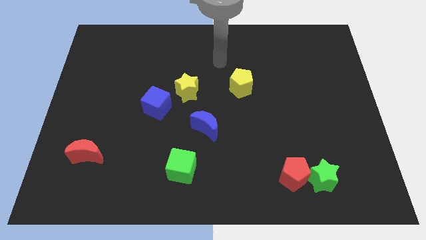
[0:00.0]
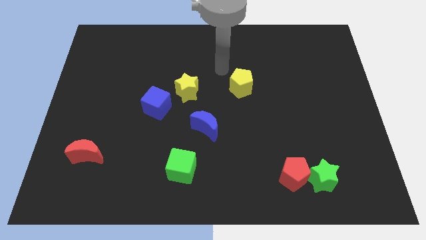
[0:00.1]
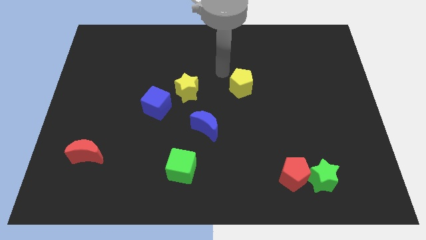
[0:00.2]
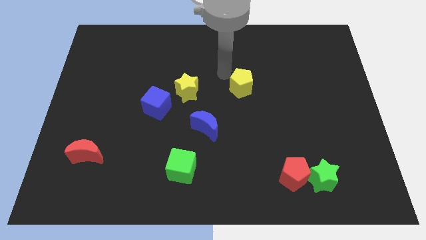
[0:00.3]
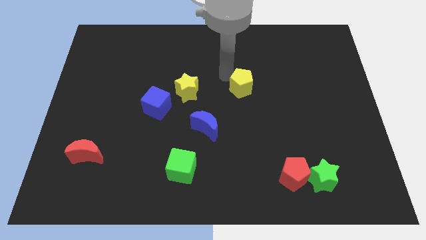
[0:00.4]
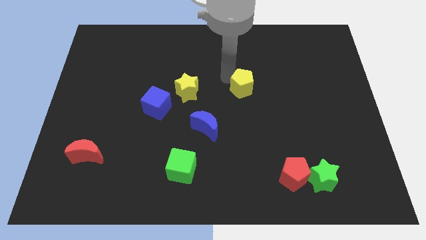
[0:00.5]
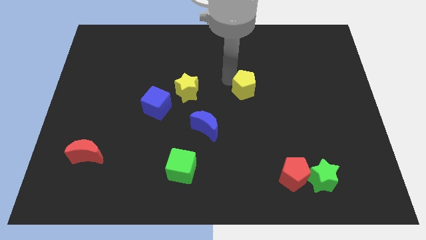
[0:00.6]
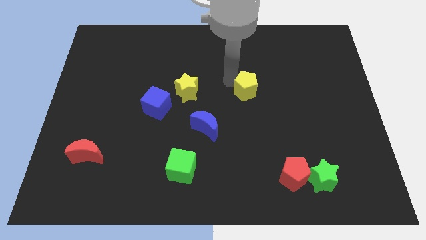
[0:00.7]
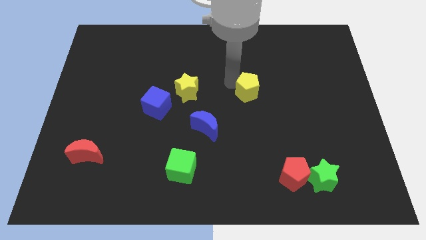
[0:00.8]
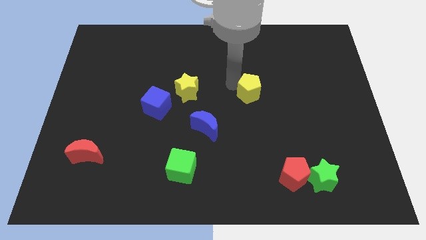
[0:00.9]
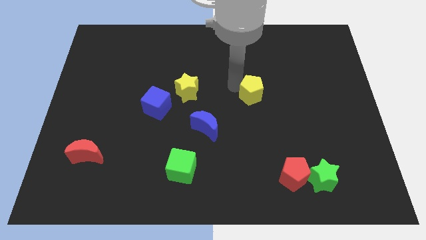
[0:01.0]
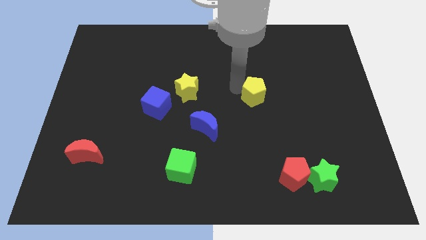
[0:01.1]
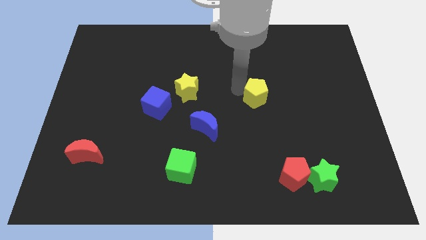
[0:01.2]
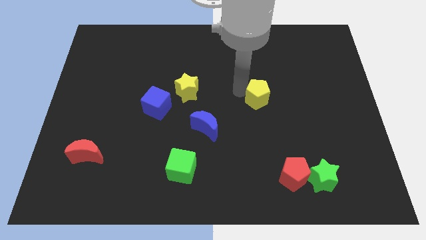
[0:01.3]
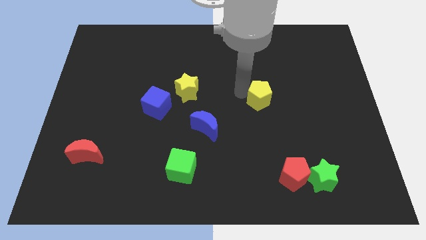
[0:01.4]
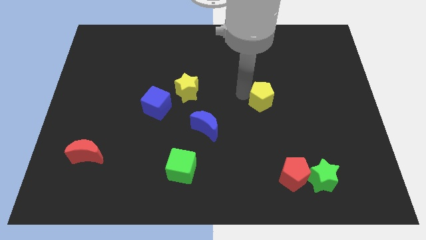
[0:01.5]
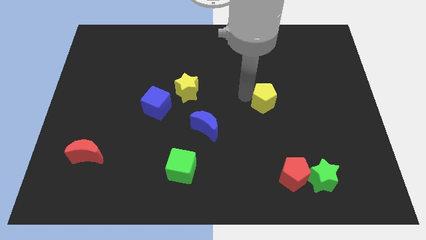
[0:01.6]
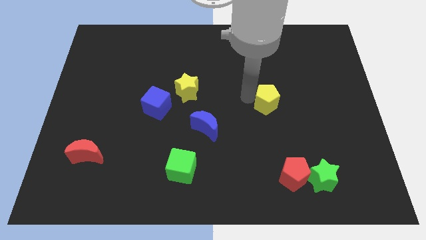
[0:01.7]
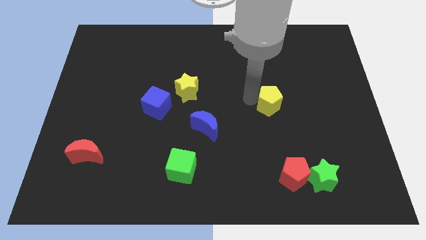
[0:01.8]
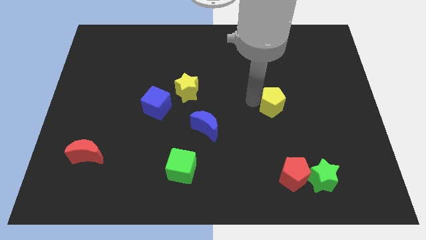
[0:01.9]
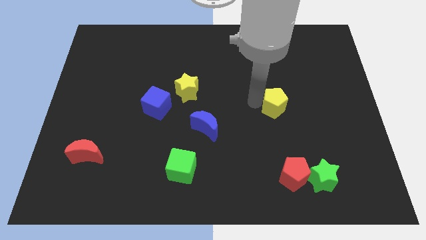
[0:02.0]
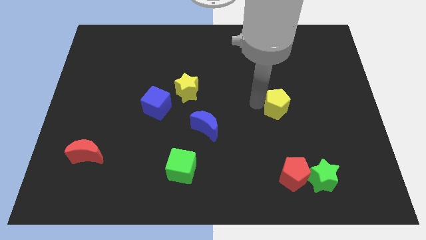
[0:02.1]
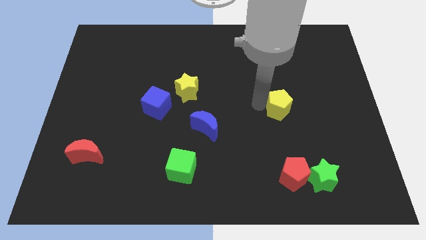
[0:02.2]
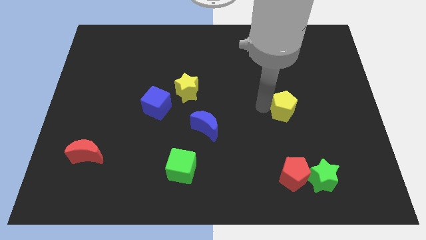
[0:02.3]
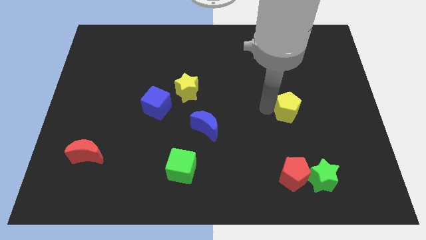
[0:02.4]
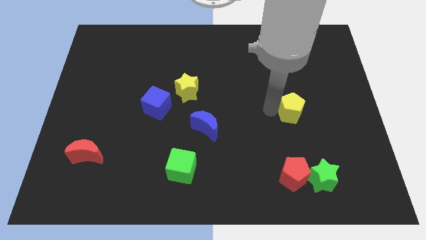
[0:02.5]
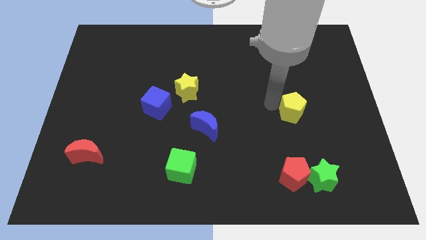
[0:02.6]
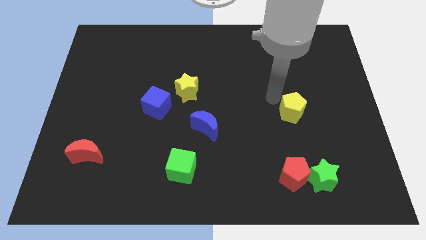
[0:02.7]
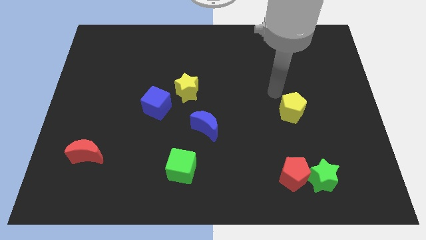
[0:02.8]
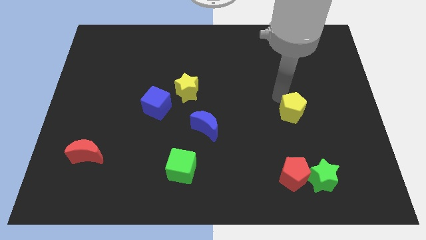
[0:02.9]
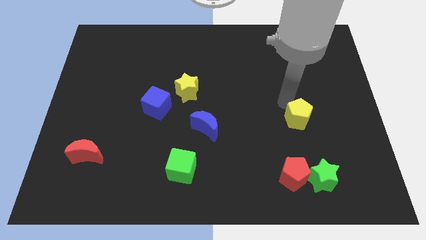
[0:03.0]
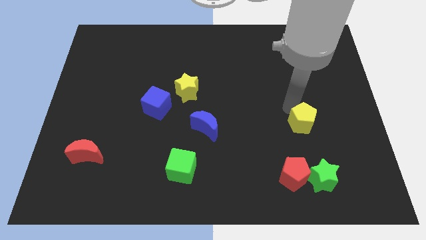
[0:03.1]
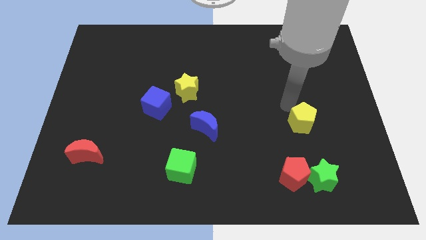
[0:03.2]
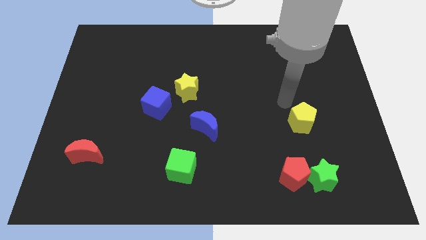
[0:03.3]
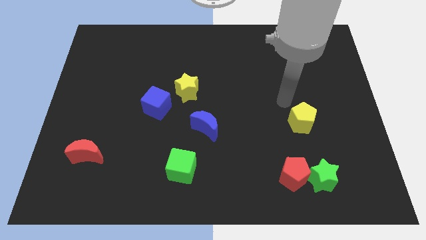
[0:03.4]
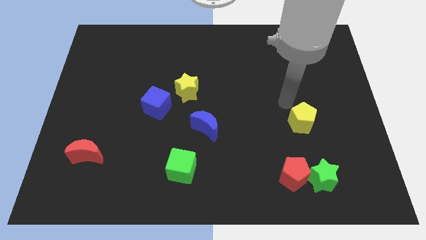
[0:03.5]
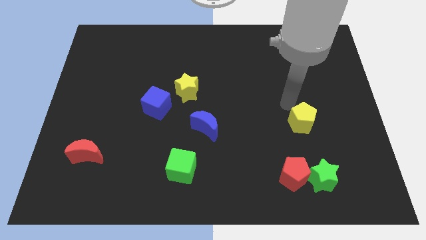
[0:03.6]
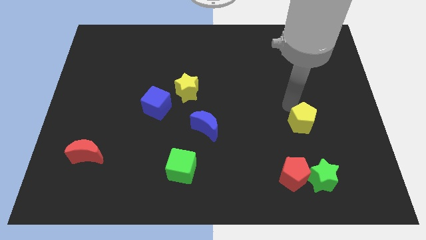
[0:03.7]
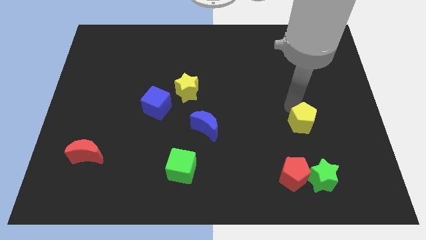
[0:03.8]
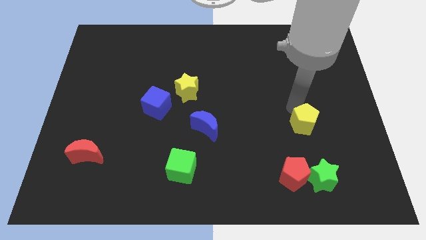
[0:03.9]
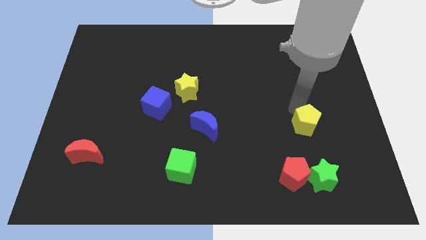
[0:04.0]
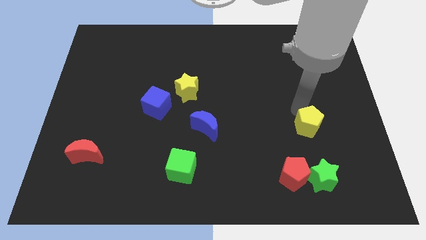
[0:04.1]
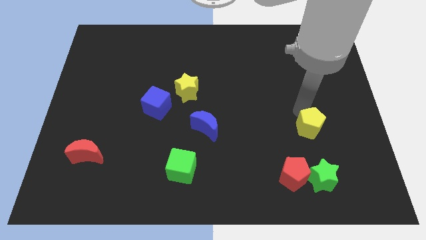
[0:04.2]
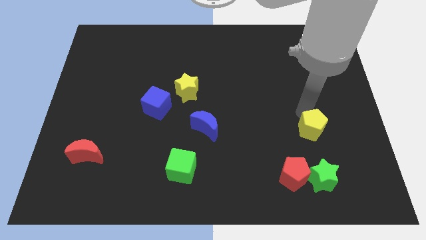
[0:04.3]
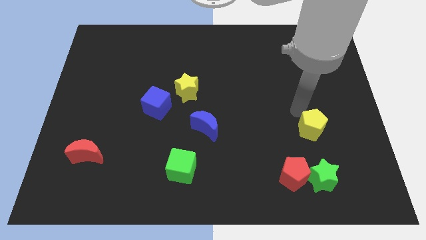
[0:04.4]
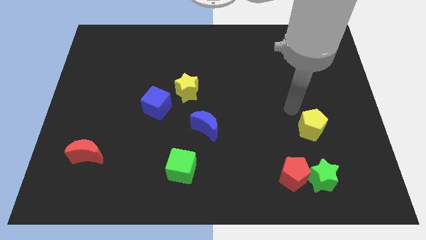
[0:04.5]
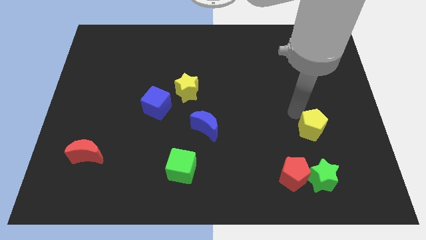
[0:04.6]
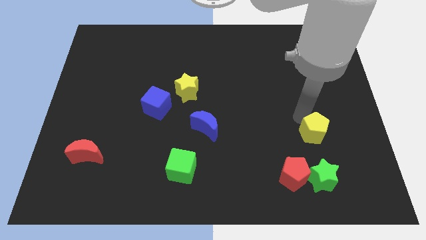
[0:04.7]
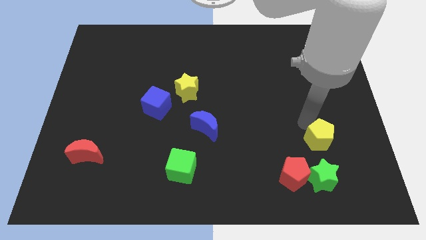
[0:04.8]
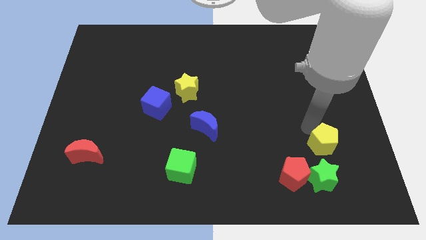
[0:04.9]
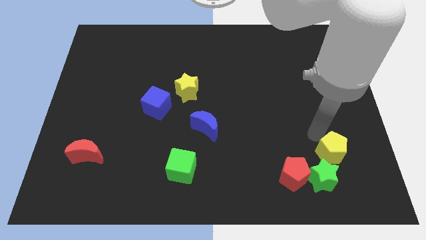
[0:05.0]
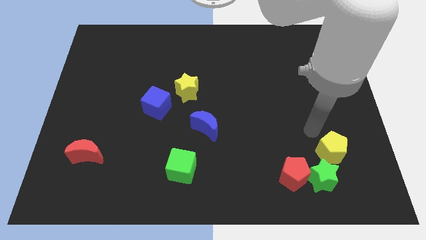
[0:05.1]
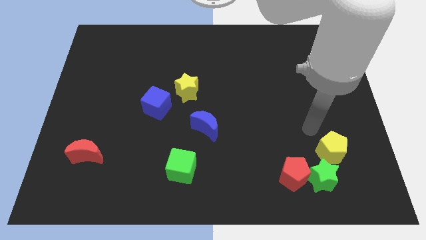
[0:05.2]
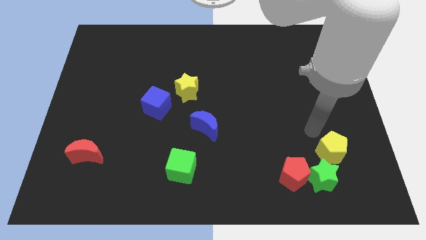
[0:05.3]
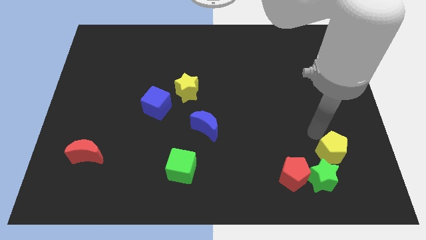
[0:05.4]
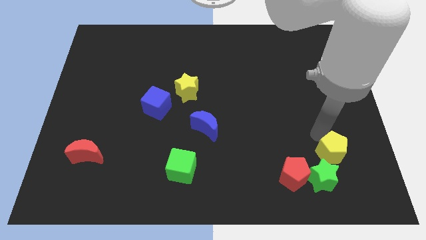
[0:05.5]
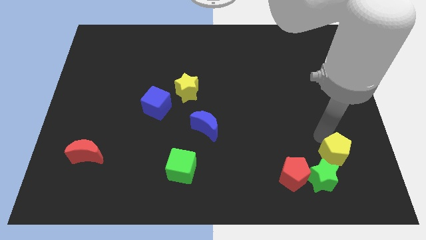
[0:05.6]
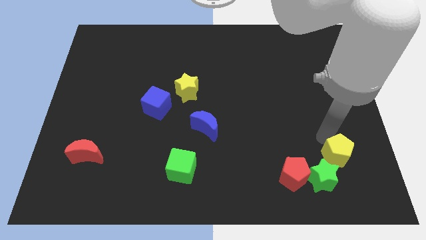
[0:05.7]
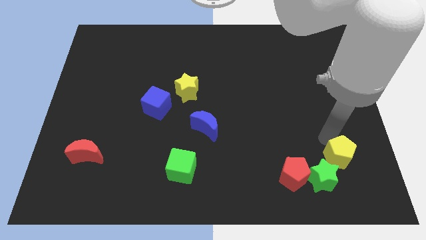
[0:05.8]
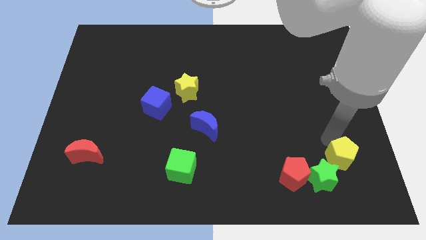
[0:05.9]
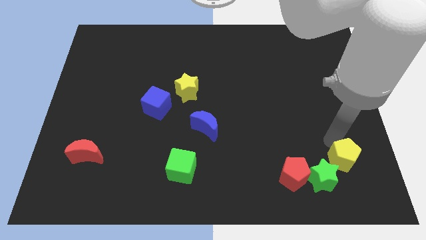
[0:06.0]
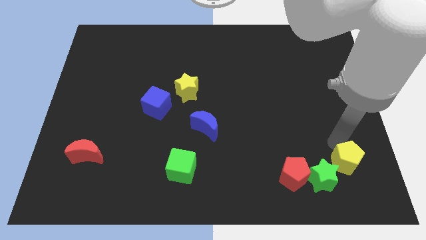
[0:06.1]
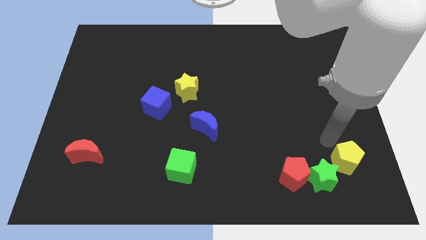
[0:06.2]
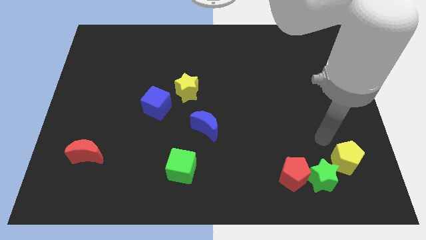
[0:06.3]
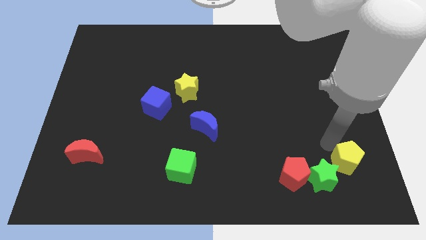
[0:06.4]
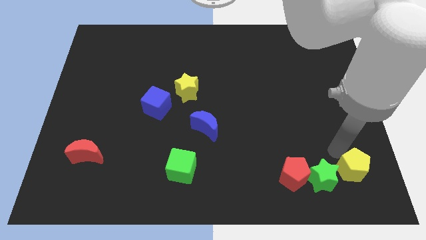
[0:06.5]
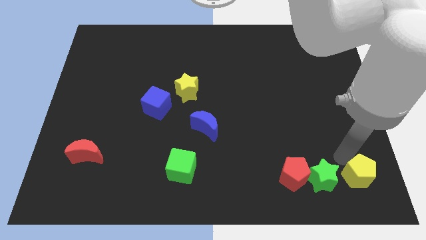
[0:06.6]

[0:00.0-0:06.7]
slide the yellow pentagon to the bottom right corner
